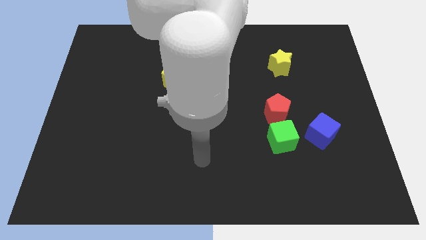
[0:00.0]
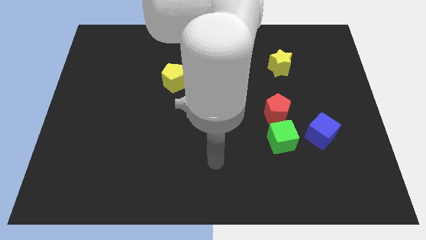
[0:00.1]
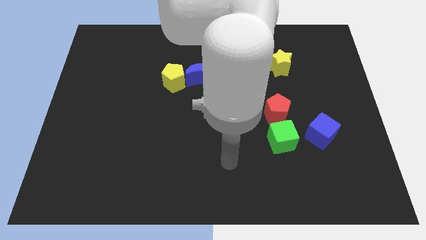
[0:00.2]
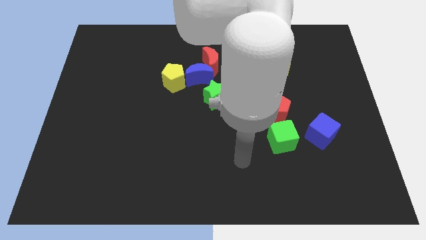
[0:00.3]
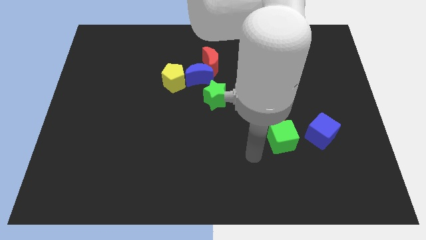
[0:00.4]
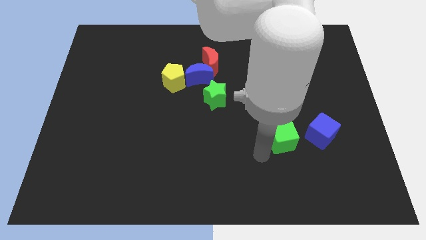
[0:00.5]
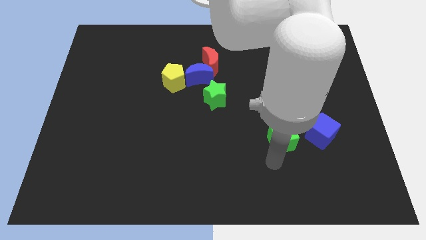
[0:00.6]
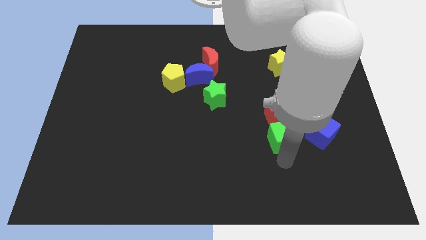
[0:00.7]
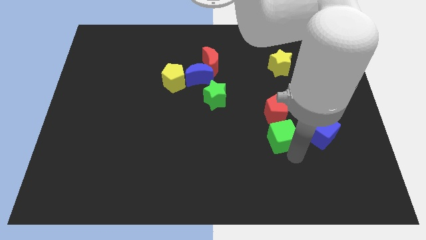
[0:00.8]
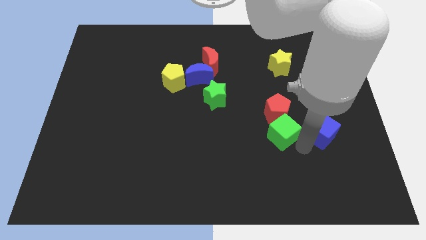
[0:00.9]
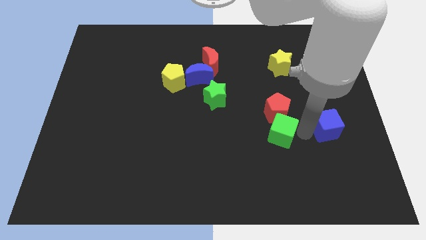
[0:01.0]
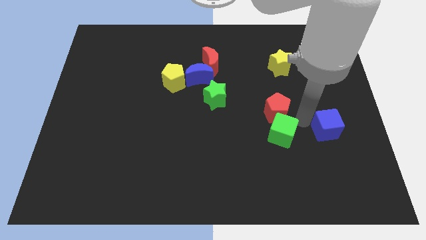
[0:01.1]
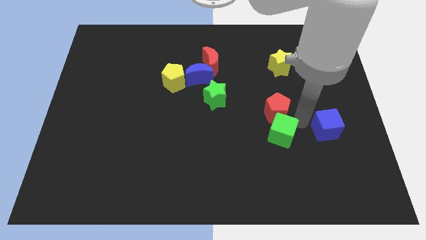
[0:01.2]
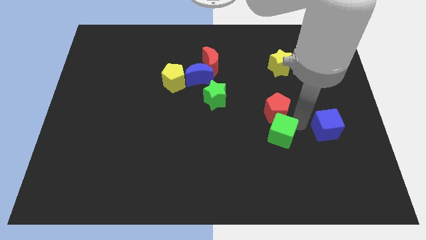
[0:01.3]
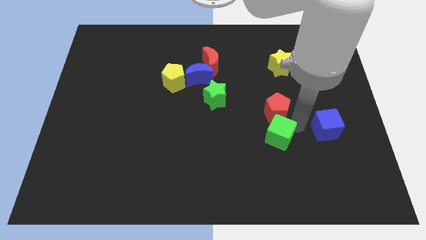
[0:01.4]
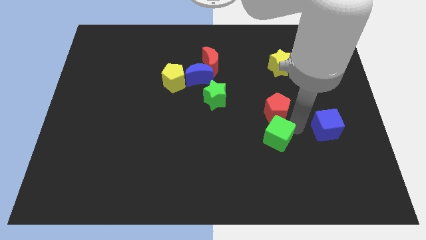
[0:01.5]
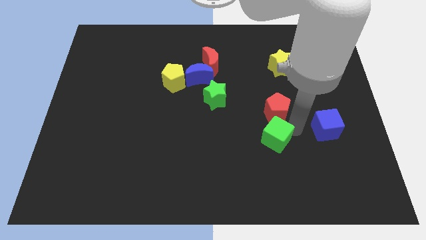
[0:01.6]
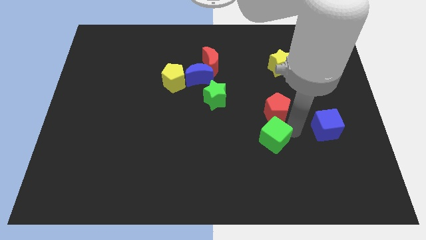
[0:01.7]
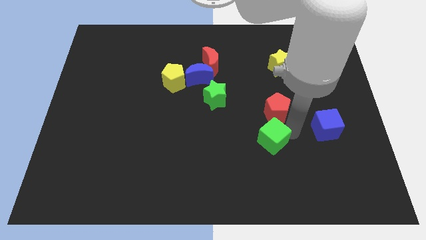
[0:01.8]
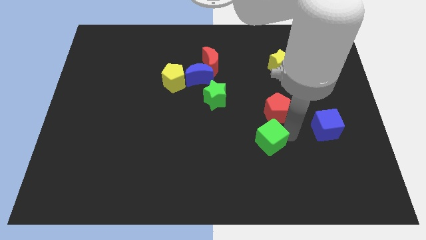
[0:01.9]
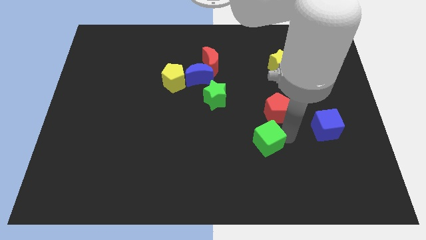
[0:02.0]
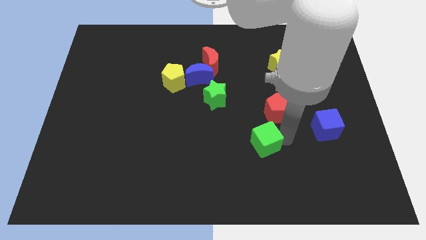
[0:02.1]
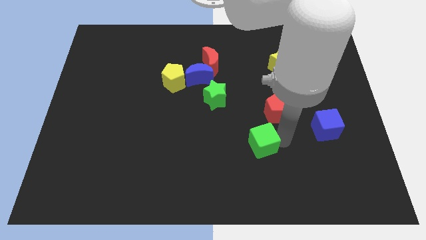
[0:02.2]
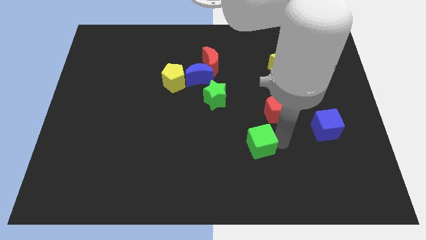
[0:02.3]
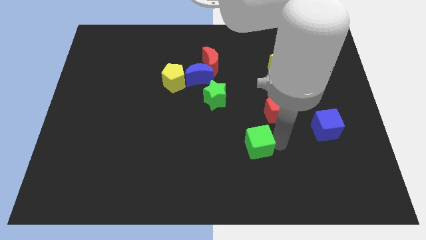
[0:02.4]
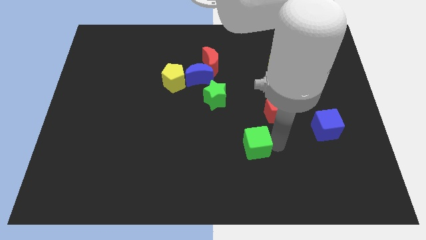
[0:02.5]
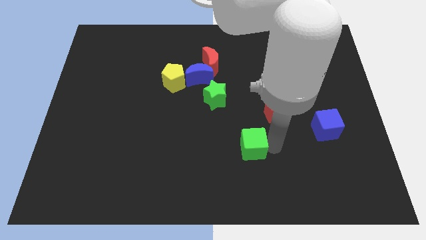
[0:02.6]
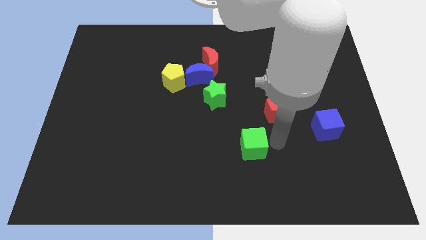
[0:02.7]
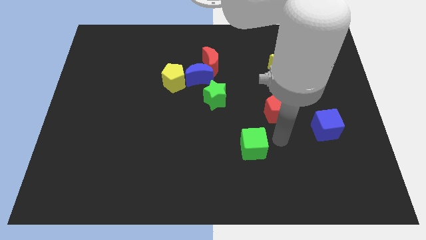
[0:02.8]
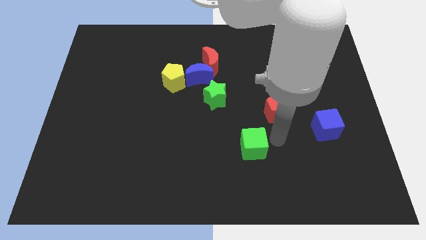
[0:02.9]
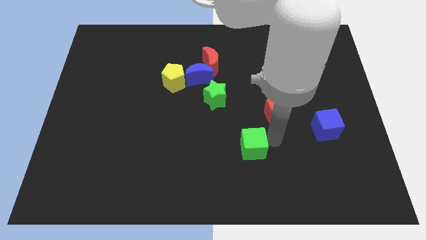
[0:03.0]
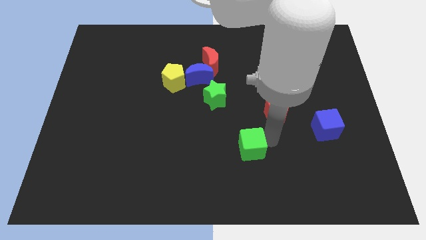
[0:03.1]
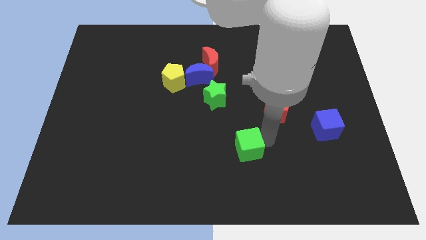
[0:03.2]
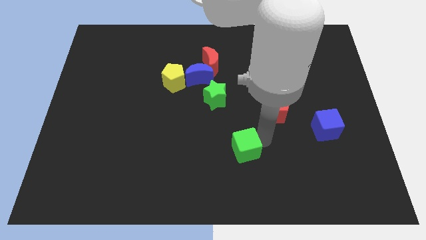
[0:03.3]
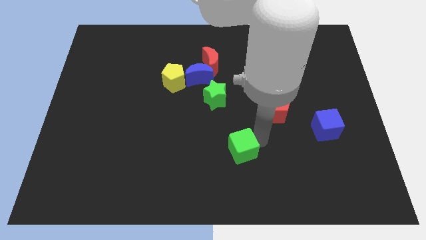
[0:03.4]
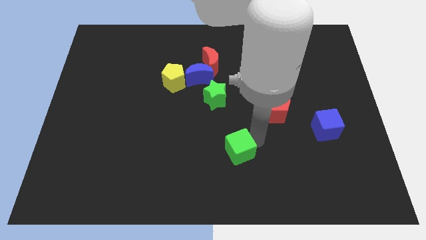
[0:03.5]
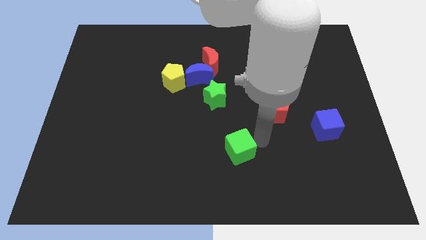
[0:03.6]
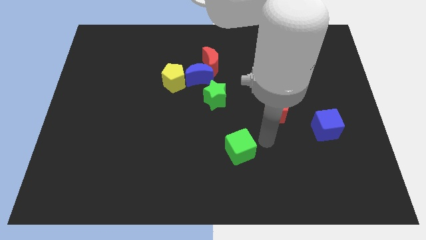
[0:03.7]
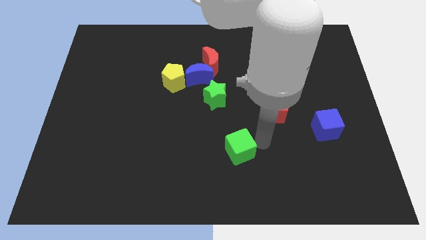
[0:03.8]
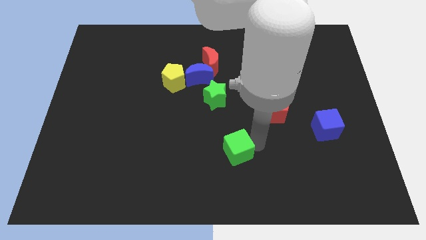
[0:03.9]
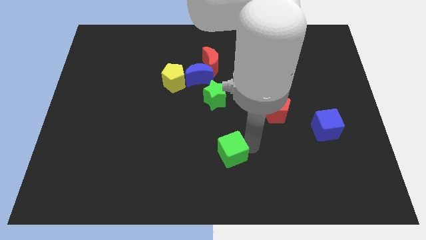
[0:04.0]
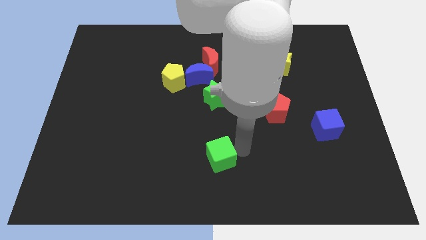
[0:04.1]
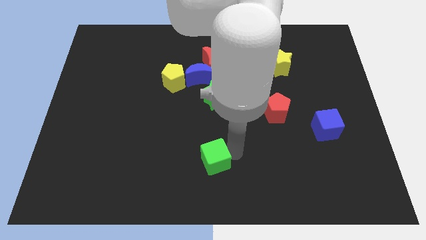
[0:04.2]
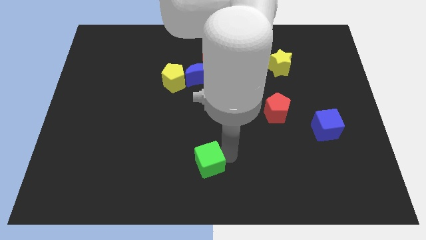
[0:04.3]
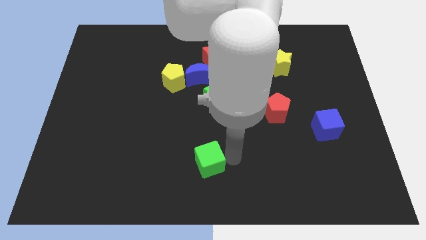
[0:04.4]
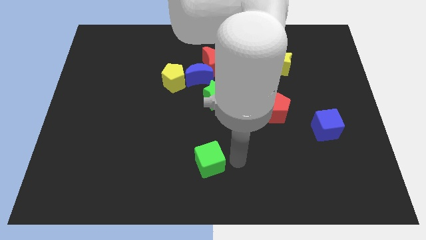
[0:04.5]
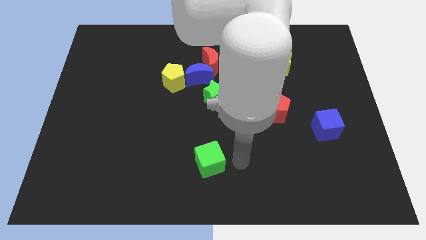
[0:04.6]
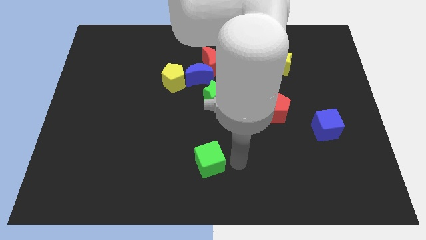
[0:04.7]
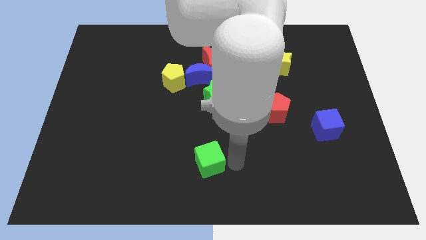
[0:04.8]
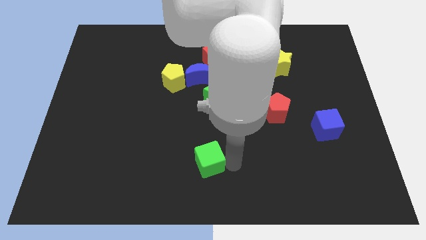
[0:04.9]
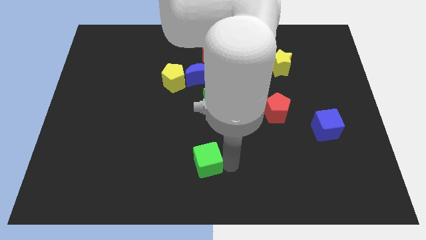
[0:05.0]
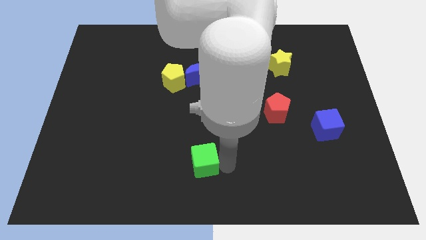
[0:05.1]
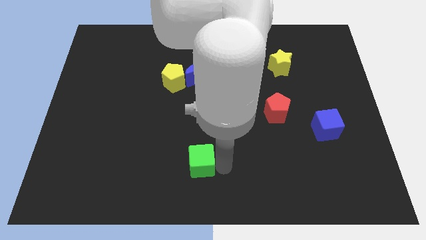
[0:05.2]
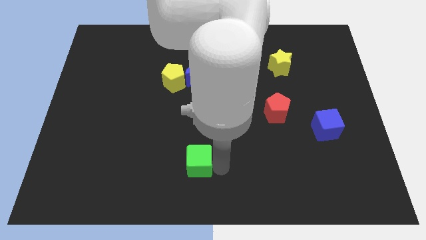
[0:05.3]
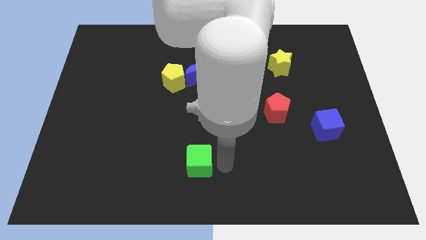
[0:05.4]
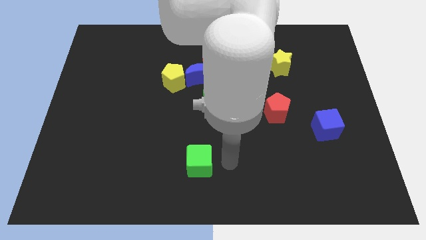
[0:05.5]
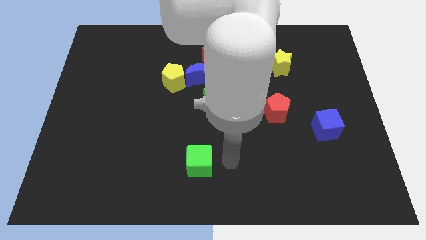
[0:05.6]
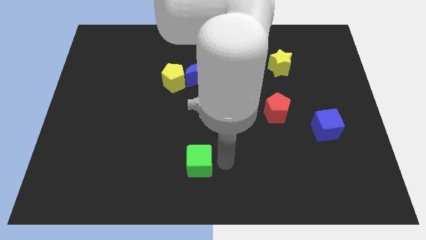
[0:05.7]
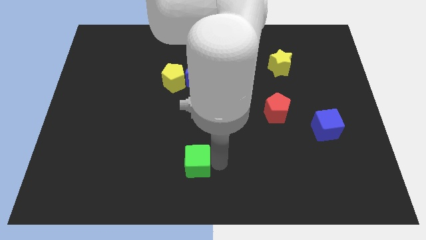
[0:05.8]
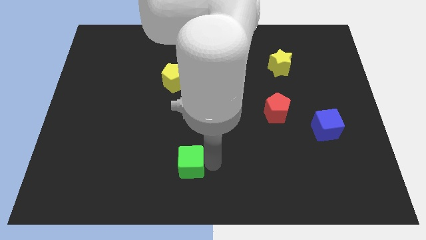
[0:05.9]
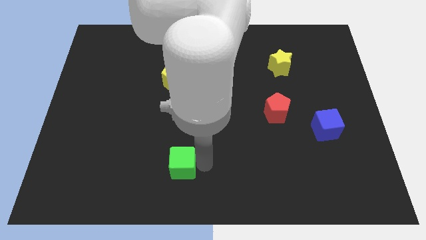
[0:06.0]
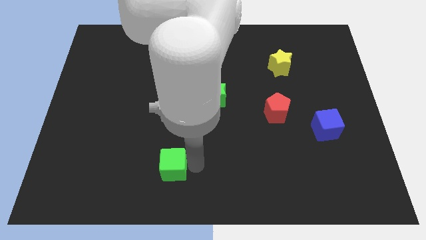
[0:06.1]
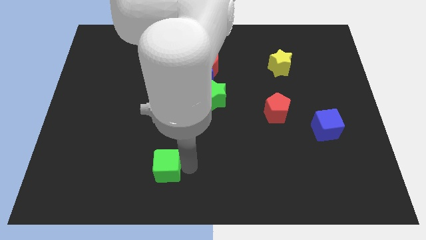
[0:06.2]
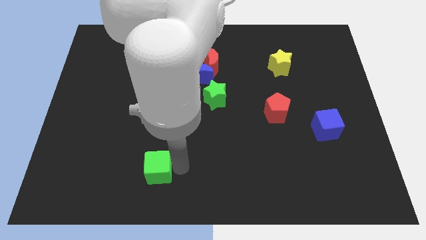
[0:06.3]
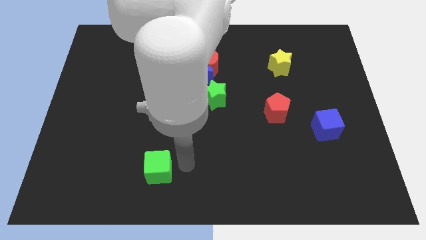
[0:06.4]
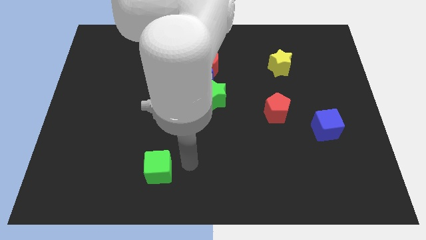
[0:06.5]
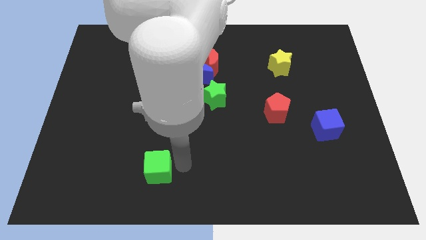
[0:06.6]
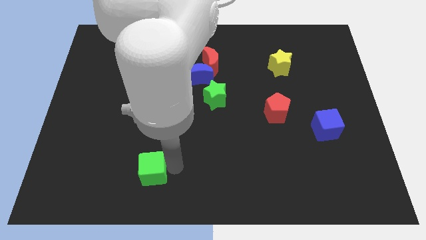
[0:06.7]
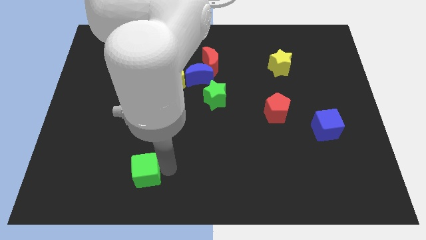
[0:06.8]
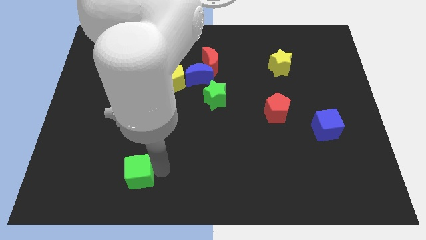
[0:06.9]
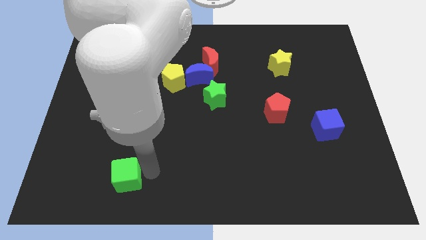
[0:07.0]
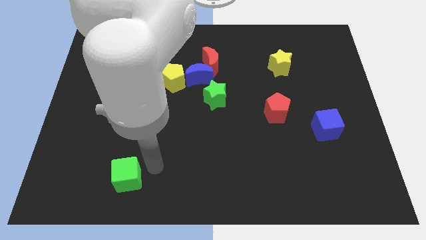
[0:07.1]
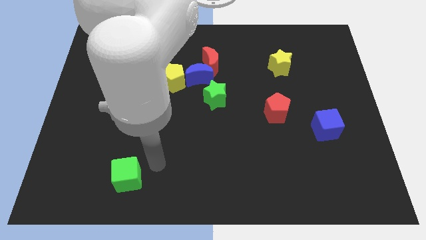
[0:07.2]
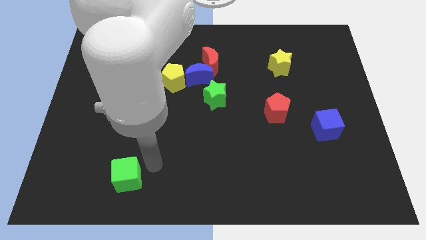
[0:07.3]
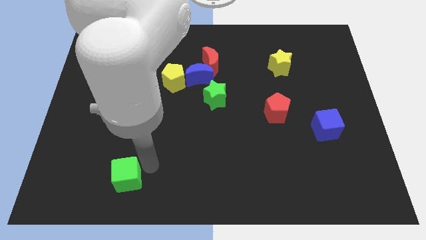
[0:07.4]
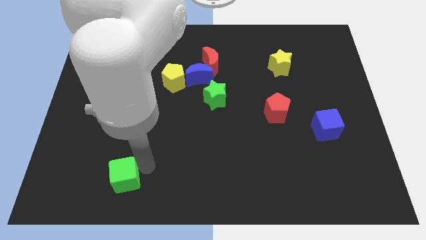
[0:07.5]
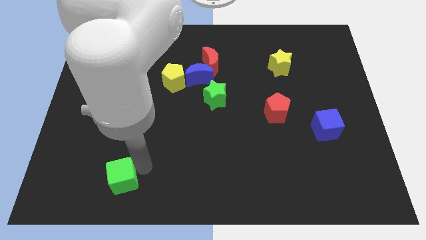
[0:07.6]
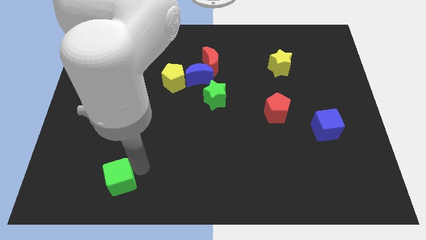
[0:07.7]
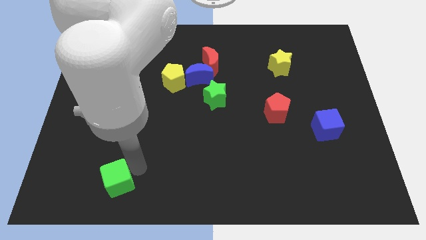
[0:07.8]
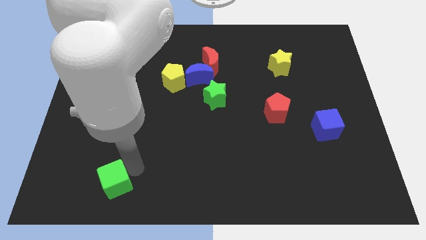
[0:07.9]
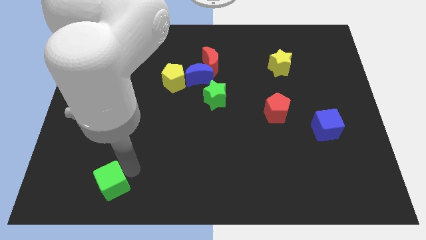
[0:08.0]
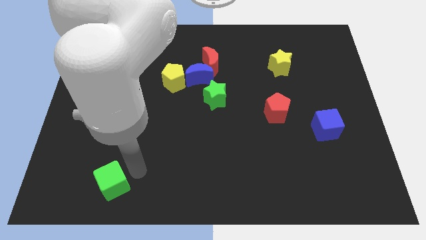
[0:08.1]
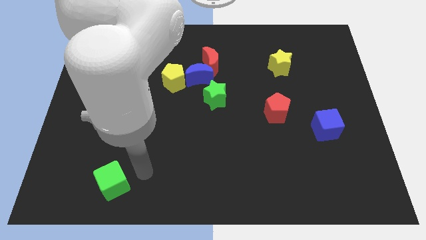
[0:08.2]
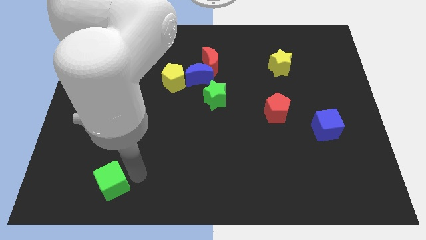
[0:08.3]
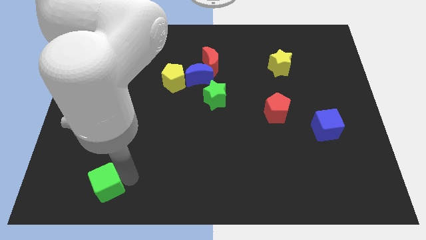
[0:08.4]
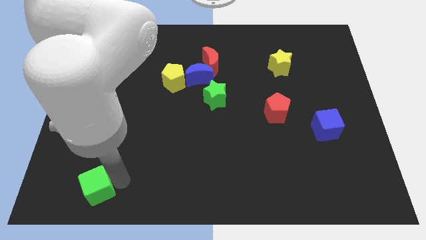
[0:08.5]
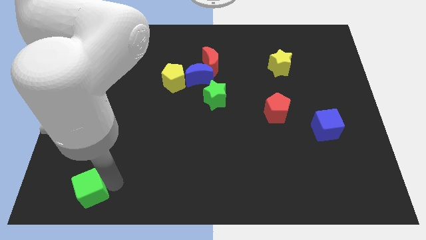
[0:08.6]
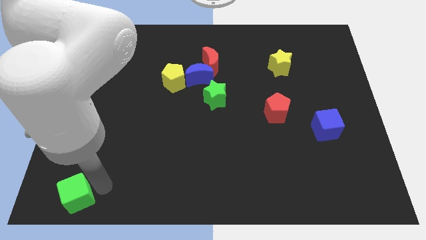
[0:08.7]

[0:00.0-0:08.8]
slide the green cube to the bottom left
